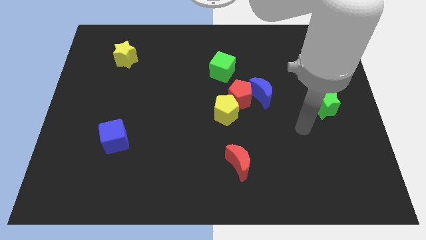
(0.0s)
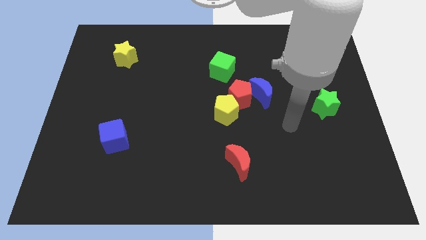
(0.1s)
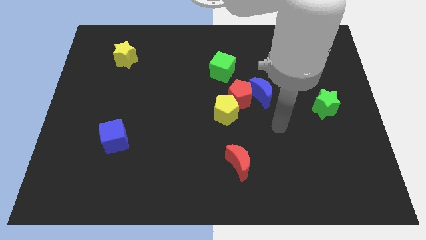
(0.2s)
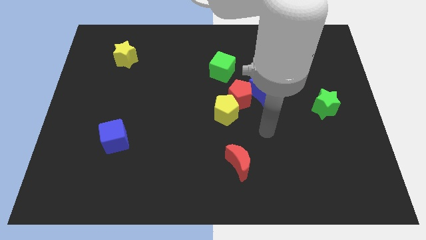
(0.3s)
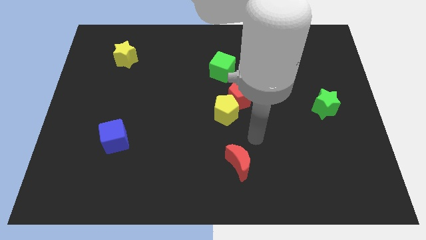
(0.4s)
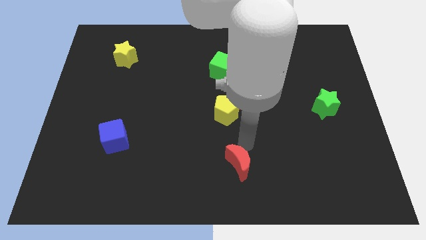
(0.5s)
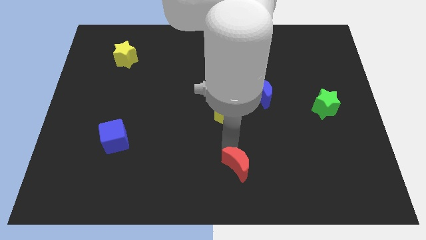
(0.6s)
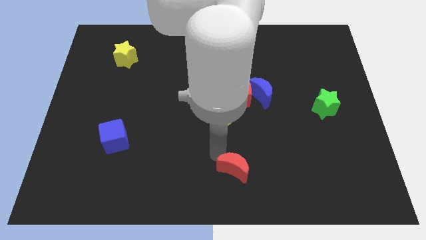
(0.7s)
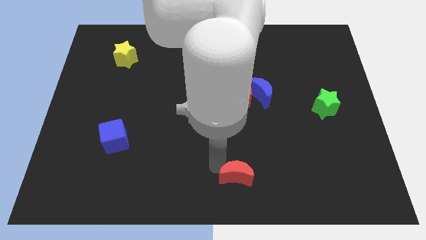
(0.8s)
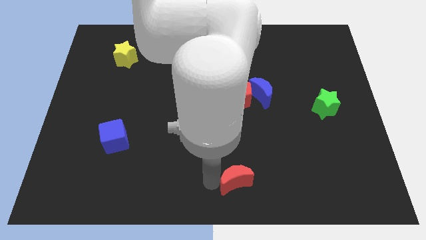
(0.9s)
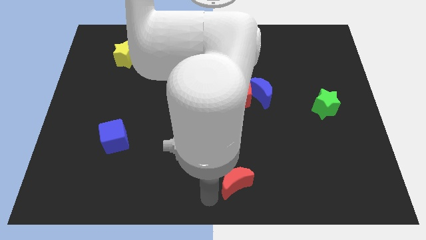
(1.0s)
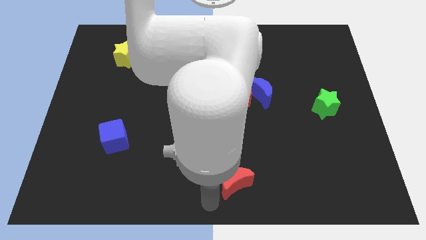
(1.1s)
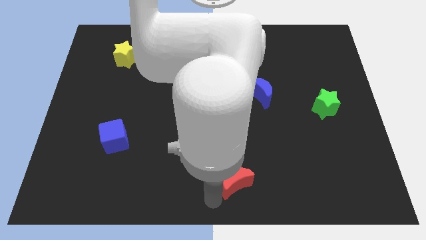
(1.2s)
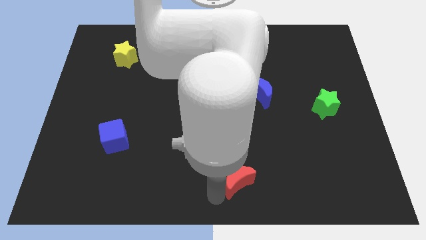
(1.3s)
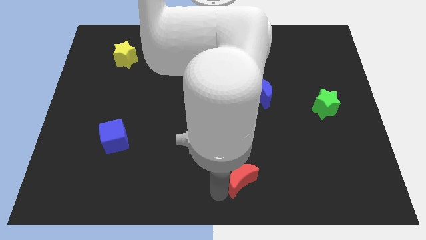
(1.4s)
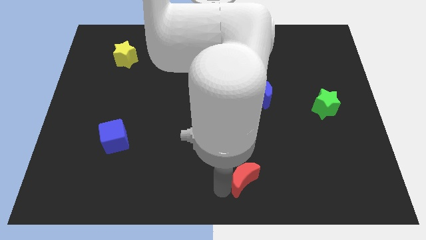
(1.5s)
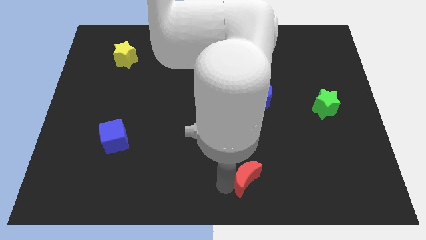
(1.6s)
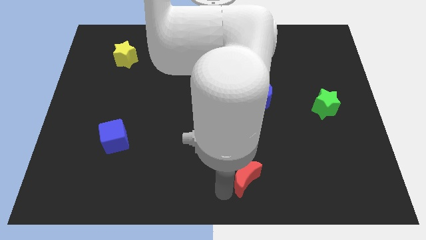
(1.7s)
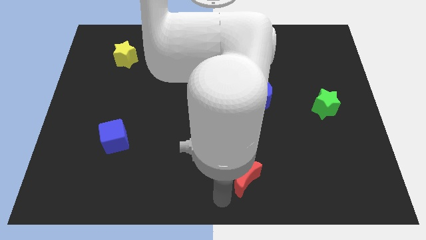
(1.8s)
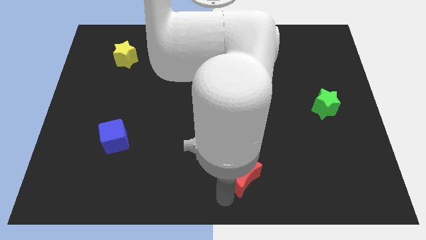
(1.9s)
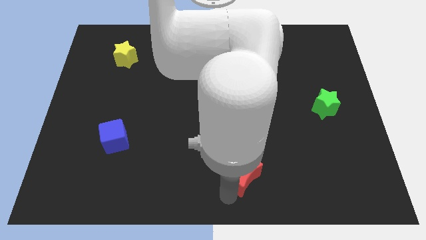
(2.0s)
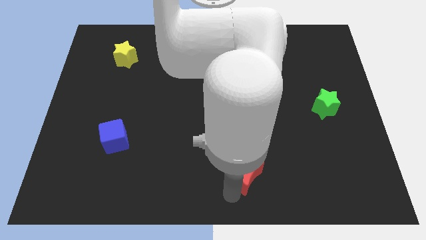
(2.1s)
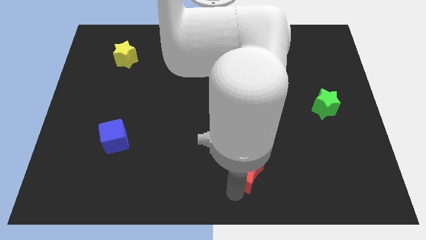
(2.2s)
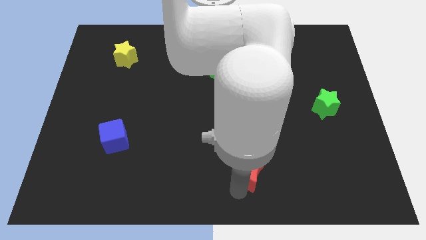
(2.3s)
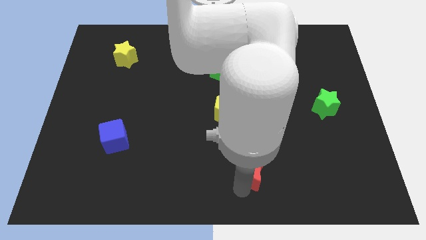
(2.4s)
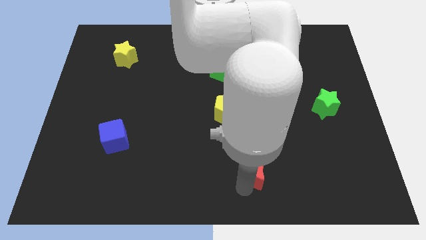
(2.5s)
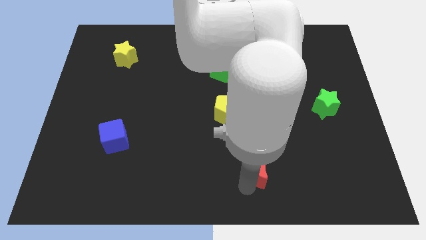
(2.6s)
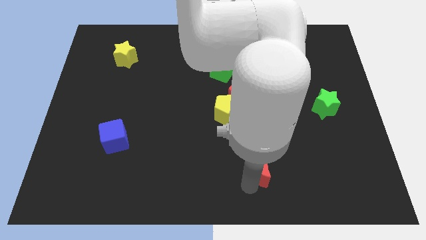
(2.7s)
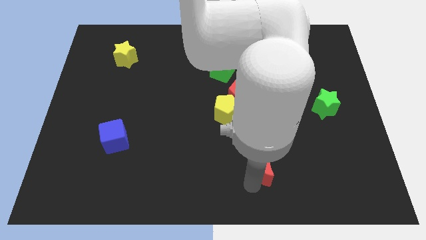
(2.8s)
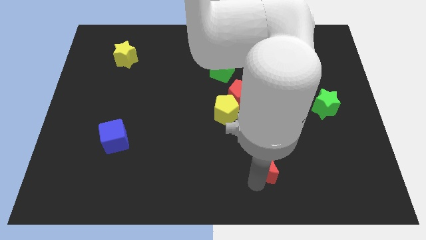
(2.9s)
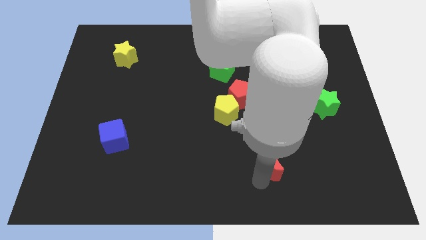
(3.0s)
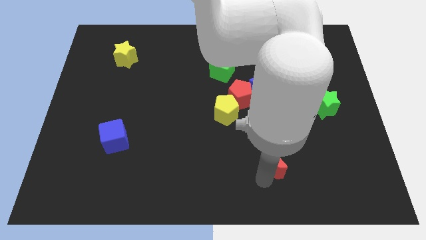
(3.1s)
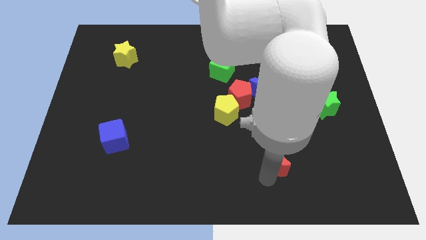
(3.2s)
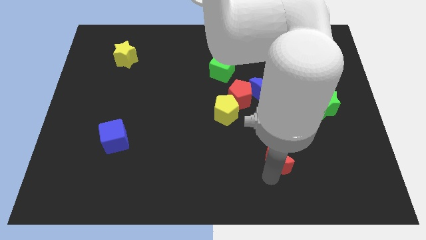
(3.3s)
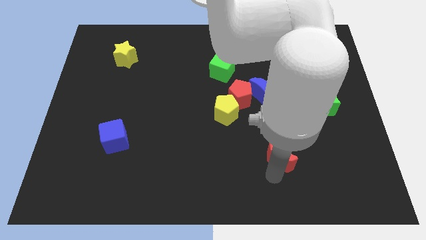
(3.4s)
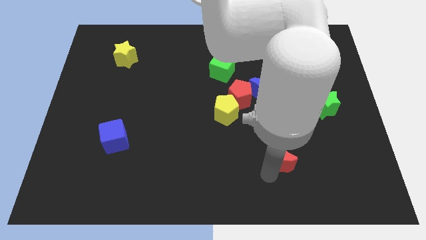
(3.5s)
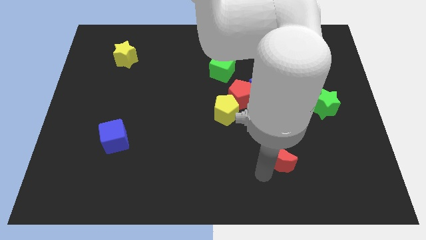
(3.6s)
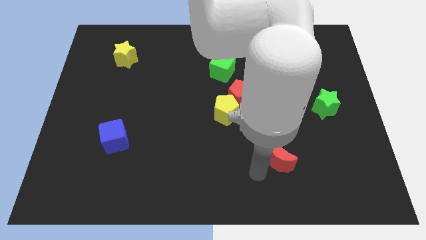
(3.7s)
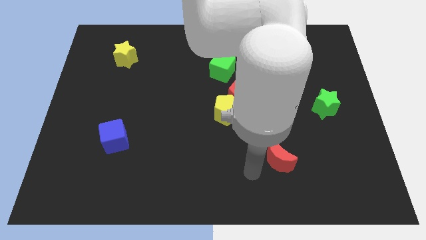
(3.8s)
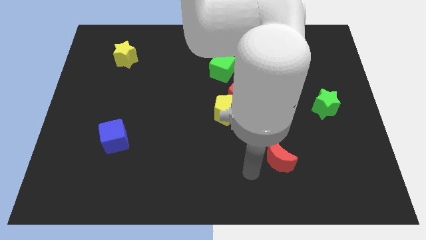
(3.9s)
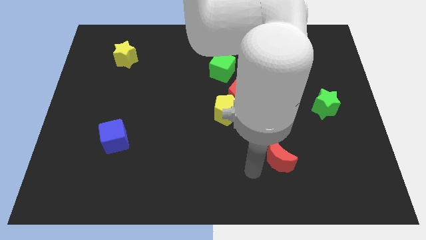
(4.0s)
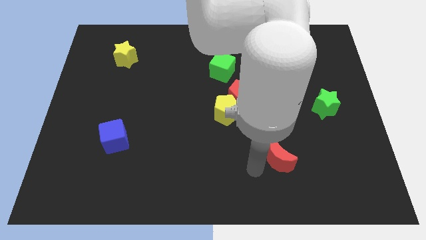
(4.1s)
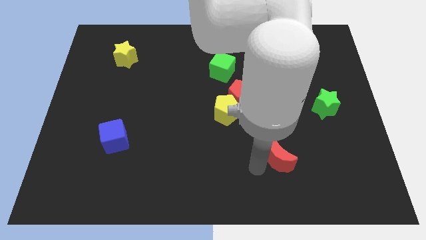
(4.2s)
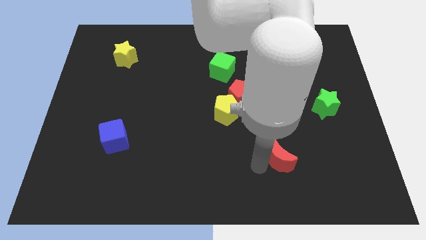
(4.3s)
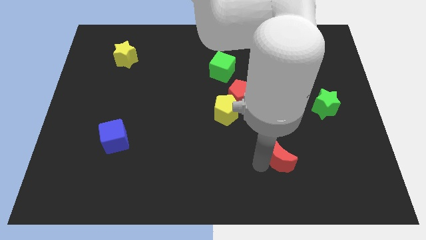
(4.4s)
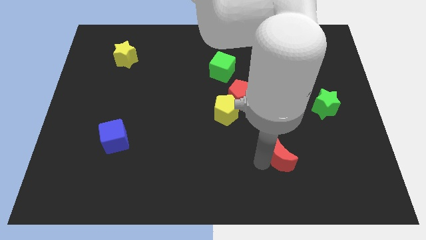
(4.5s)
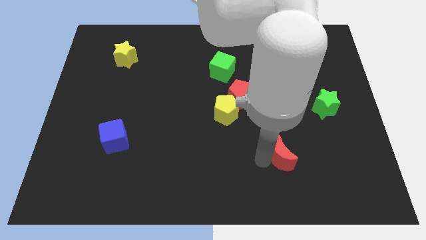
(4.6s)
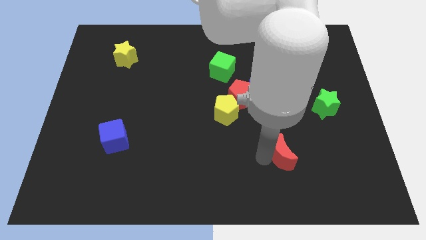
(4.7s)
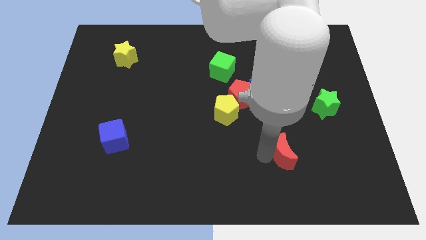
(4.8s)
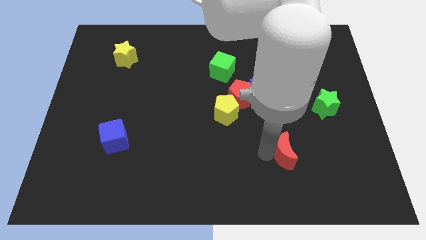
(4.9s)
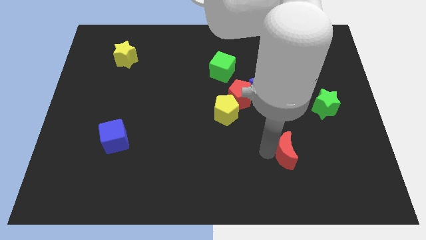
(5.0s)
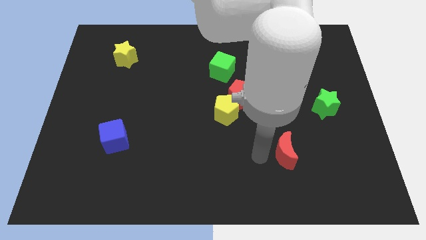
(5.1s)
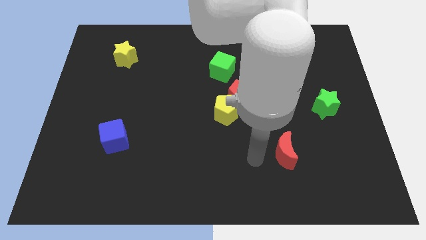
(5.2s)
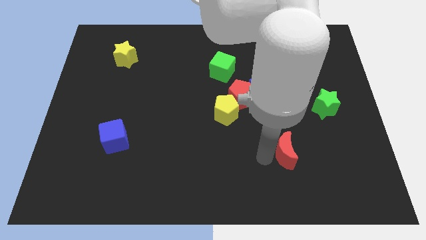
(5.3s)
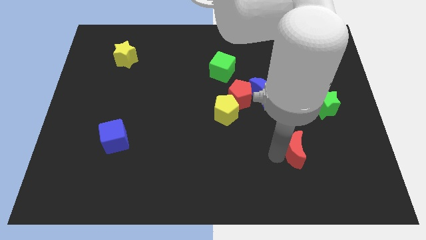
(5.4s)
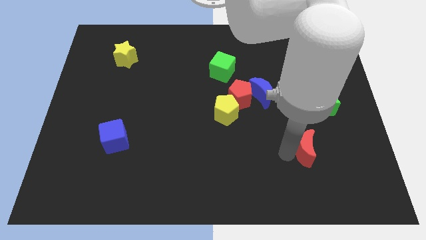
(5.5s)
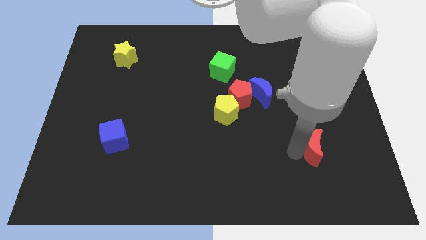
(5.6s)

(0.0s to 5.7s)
push the red moon below the green star

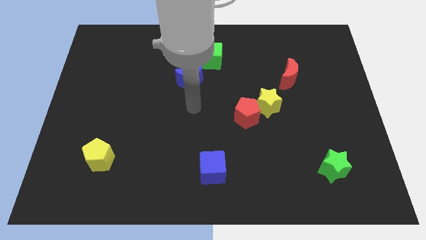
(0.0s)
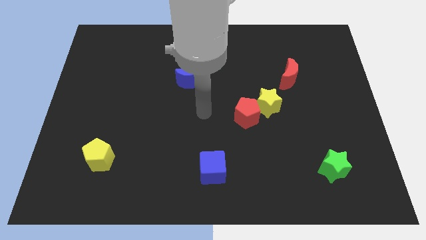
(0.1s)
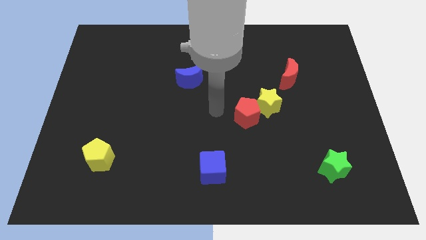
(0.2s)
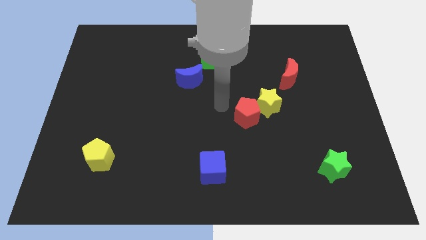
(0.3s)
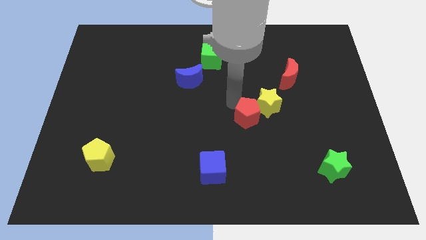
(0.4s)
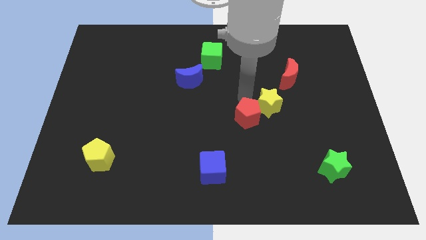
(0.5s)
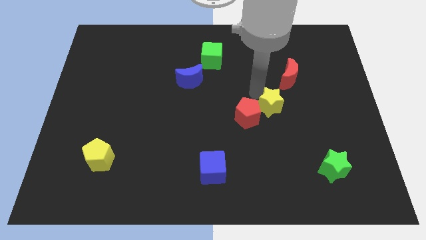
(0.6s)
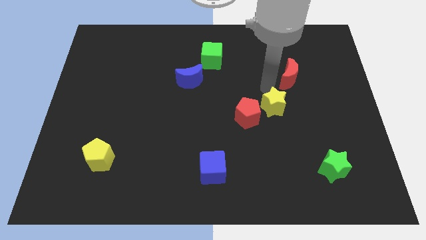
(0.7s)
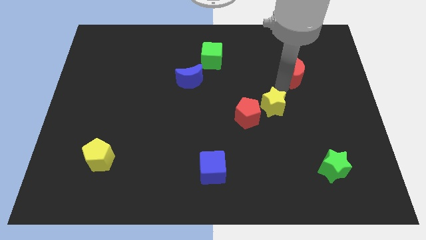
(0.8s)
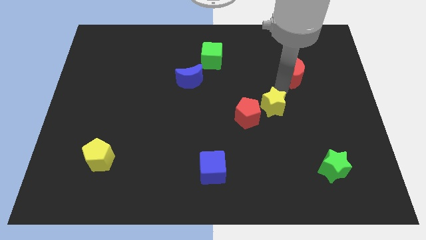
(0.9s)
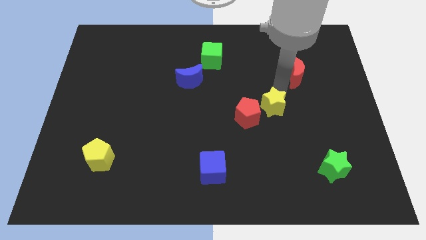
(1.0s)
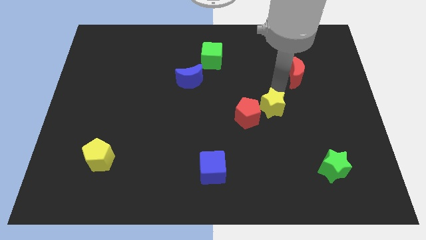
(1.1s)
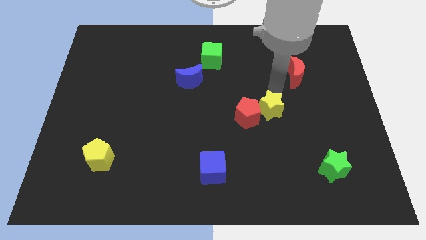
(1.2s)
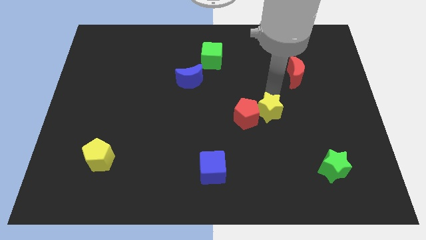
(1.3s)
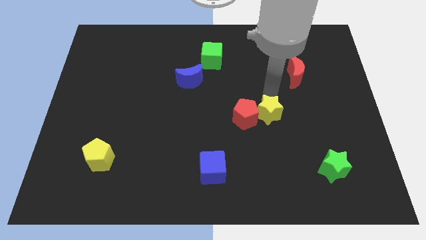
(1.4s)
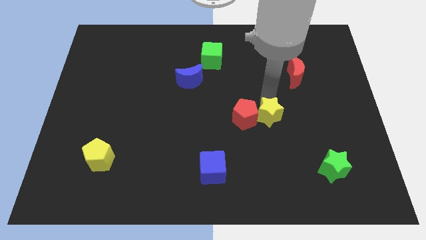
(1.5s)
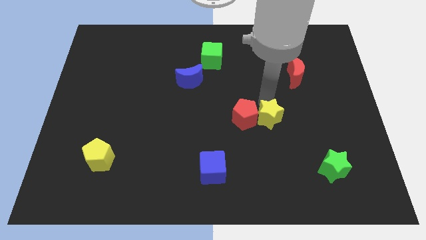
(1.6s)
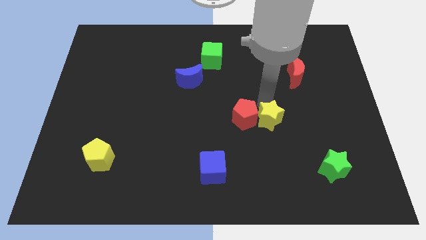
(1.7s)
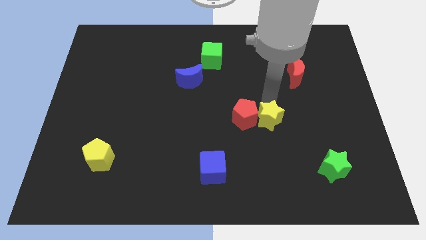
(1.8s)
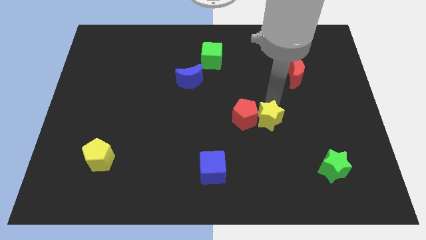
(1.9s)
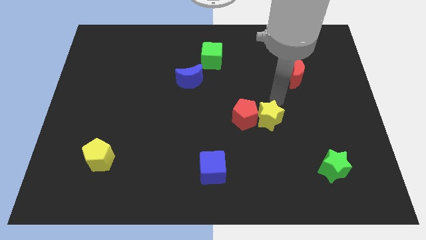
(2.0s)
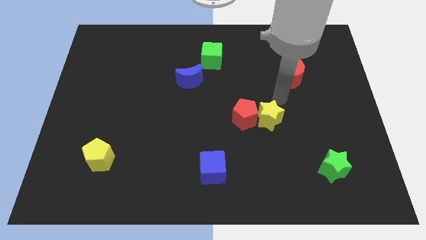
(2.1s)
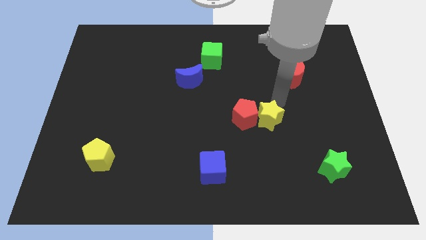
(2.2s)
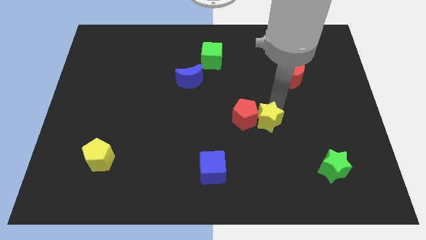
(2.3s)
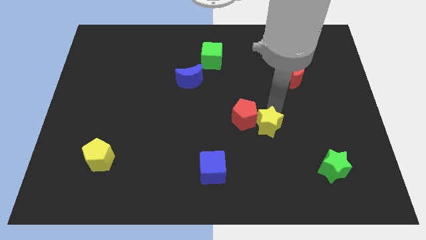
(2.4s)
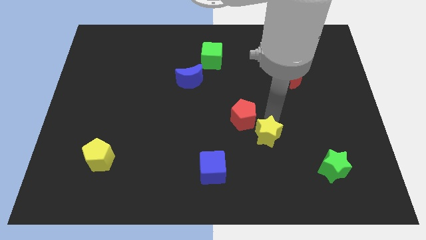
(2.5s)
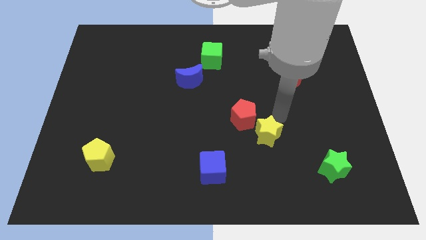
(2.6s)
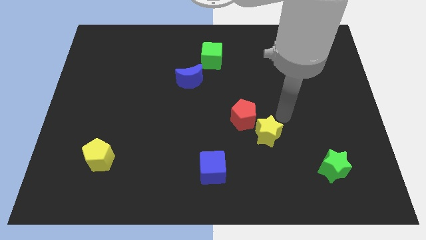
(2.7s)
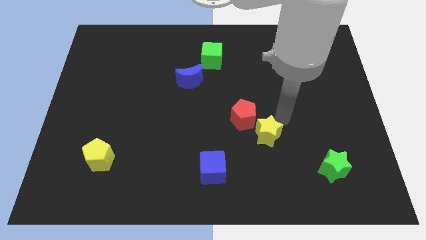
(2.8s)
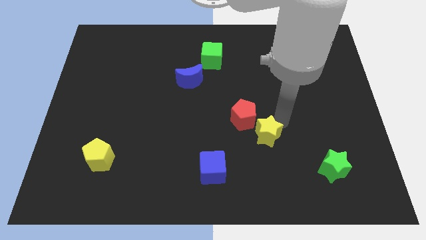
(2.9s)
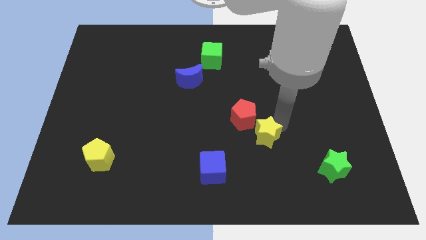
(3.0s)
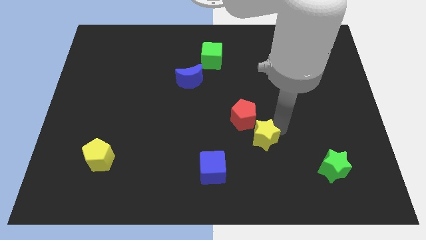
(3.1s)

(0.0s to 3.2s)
move the yellow star to the bottom of the red pentagon
